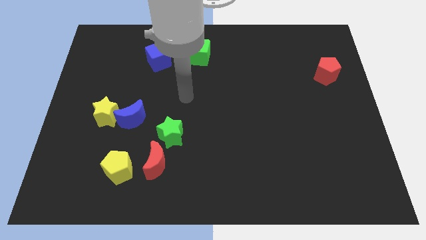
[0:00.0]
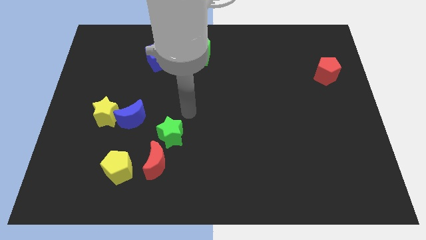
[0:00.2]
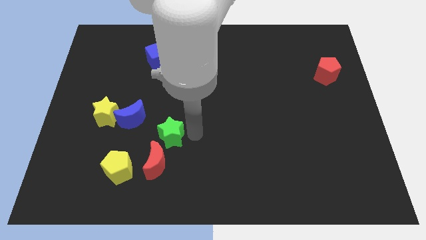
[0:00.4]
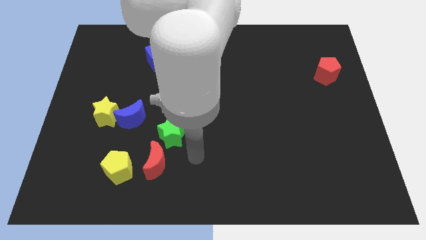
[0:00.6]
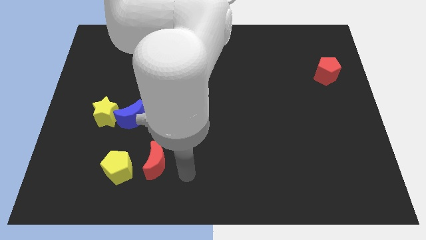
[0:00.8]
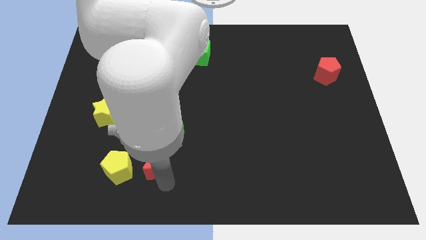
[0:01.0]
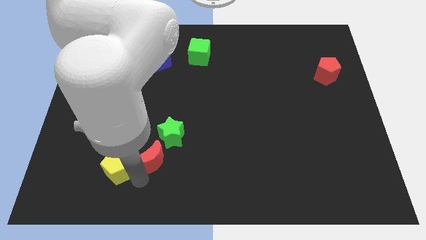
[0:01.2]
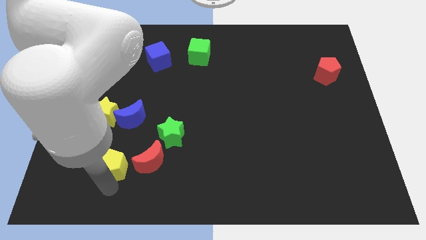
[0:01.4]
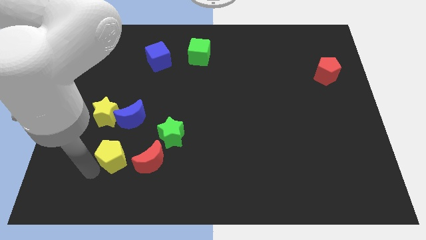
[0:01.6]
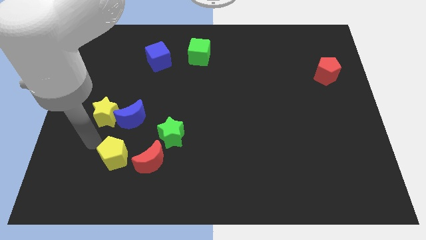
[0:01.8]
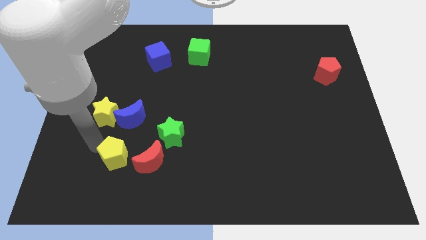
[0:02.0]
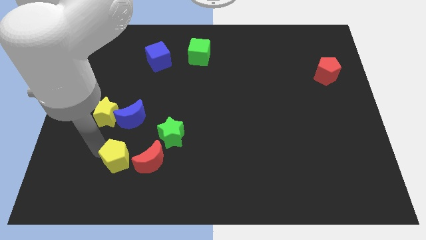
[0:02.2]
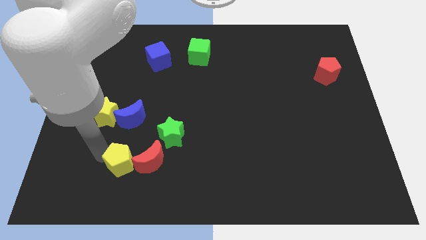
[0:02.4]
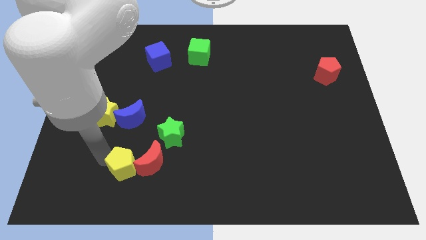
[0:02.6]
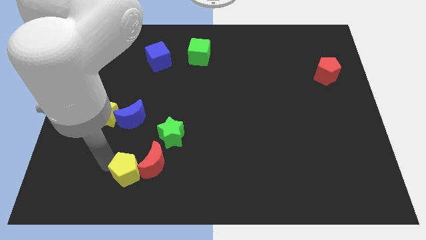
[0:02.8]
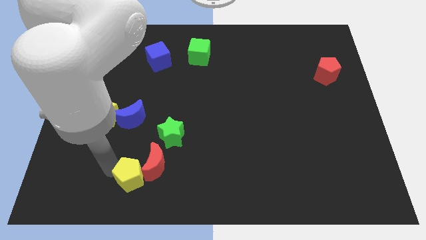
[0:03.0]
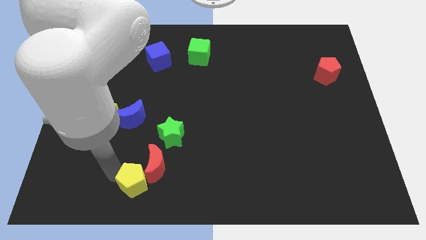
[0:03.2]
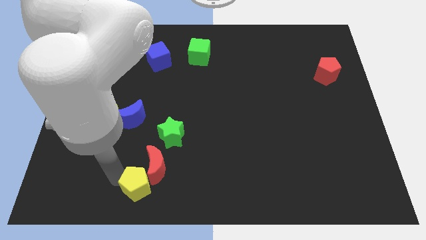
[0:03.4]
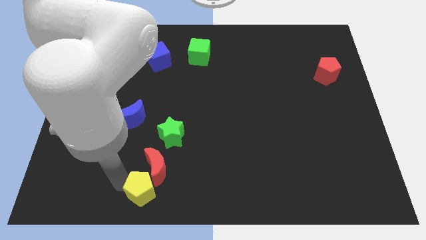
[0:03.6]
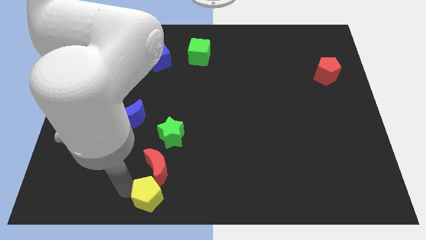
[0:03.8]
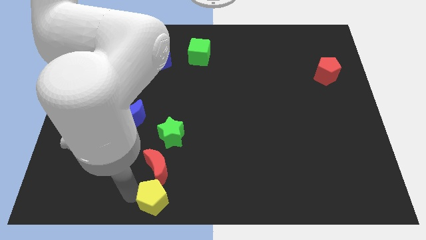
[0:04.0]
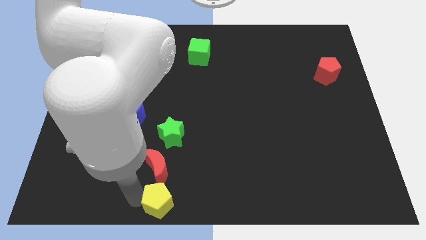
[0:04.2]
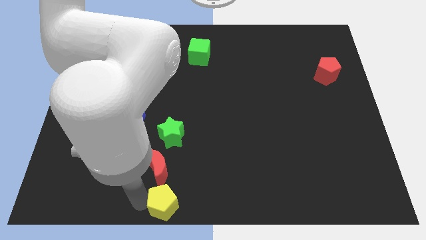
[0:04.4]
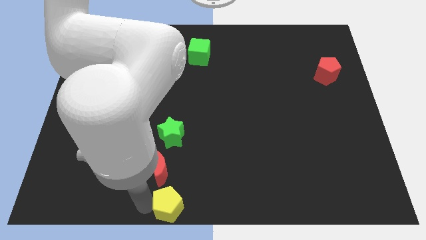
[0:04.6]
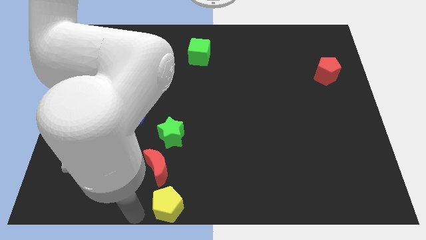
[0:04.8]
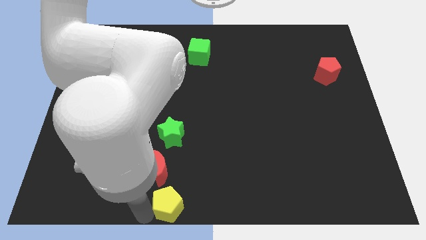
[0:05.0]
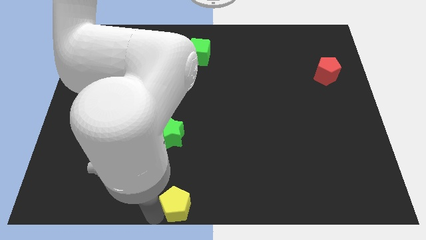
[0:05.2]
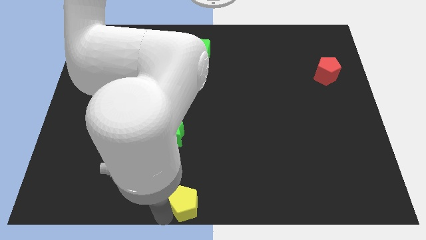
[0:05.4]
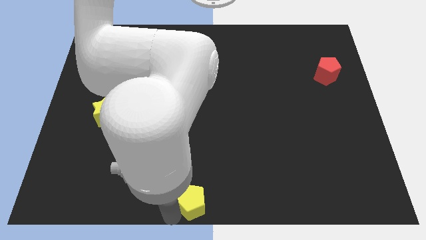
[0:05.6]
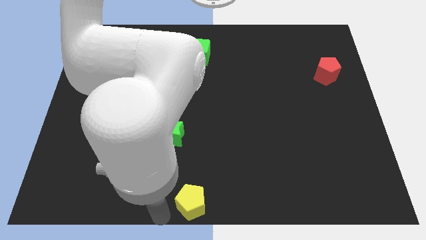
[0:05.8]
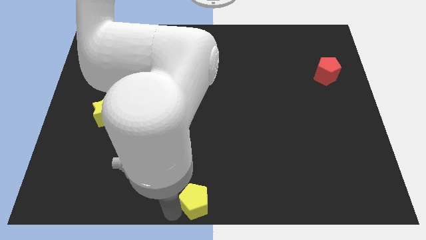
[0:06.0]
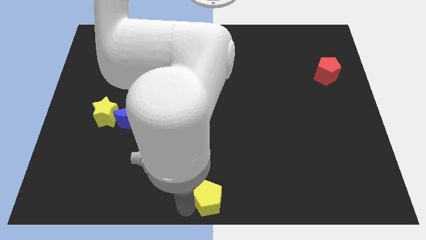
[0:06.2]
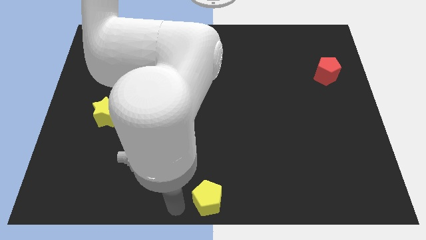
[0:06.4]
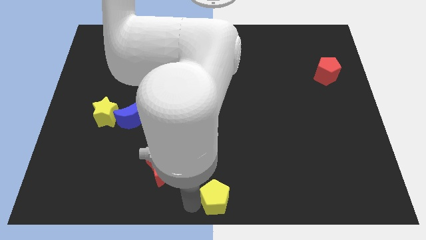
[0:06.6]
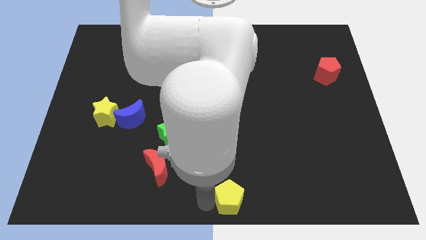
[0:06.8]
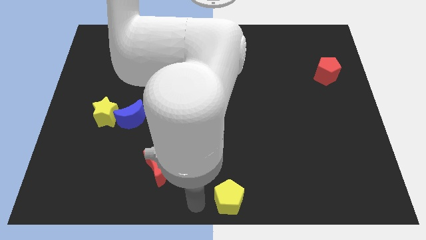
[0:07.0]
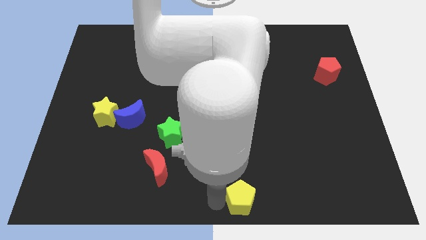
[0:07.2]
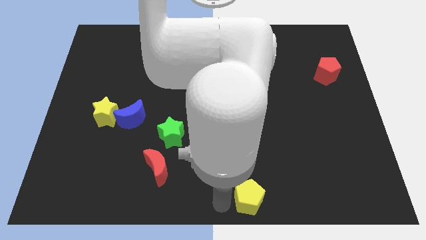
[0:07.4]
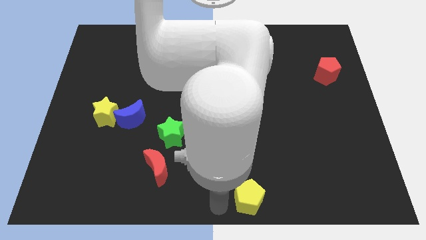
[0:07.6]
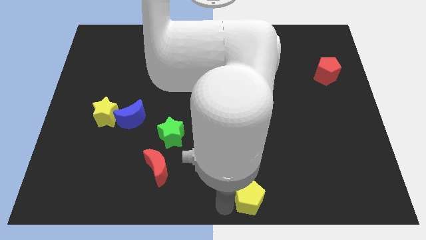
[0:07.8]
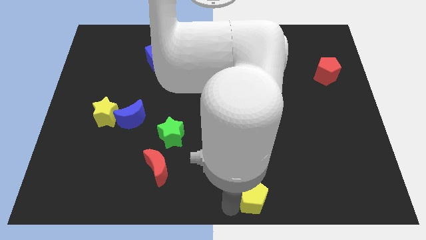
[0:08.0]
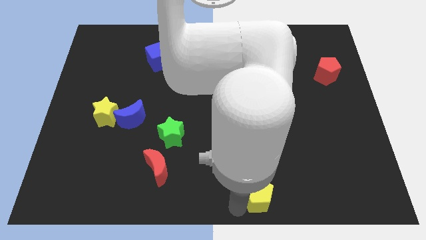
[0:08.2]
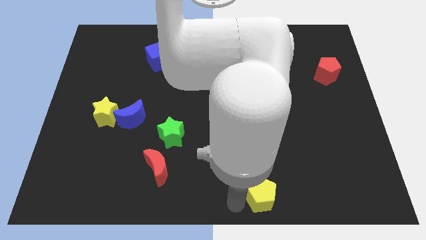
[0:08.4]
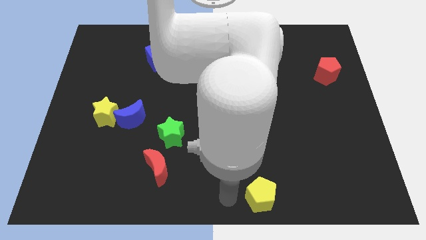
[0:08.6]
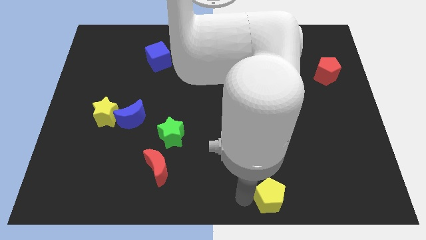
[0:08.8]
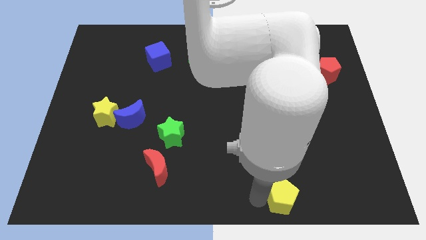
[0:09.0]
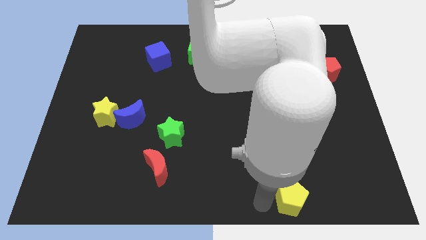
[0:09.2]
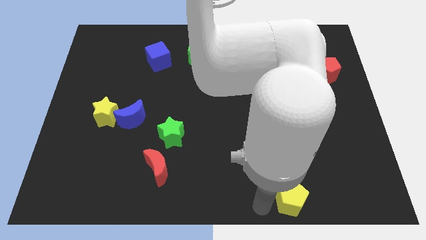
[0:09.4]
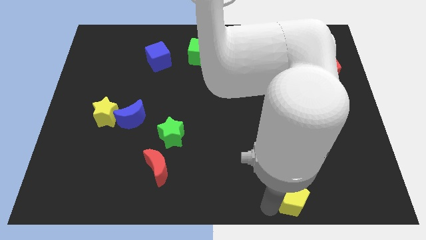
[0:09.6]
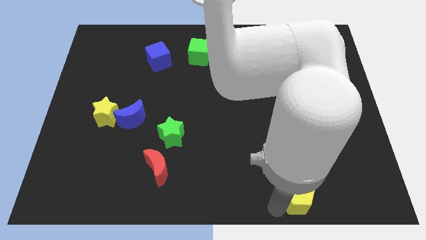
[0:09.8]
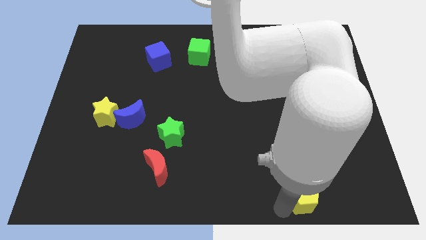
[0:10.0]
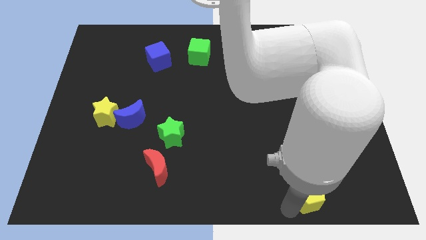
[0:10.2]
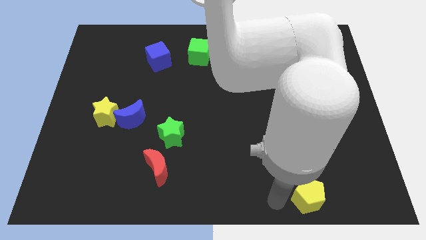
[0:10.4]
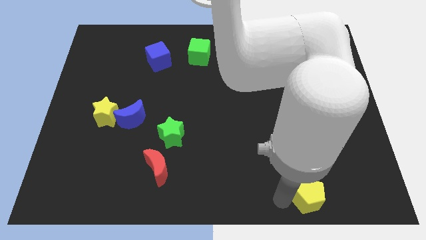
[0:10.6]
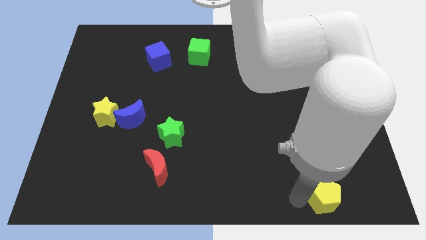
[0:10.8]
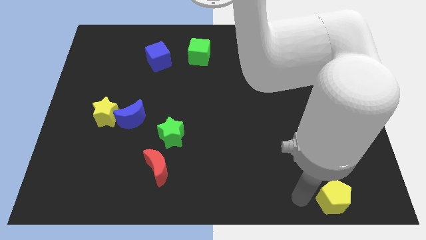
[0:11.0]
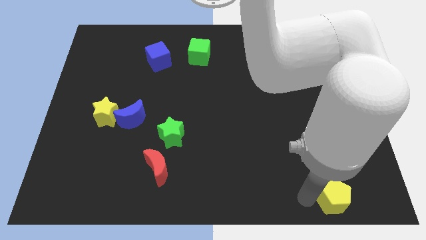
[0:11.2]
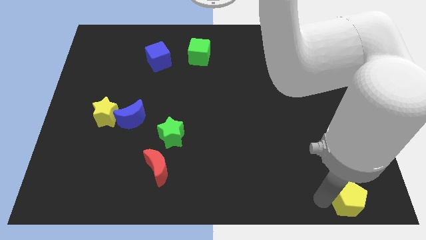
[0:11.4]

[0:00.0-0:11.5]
slide the yellow pentagon to the bottom right corner

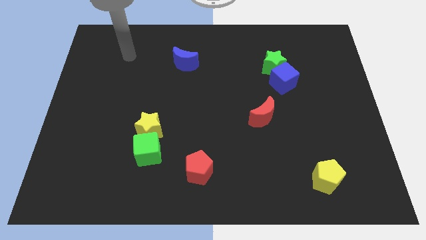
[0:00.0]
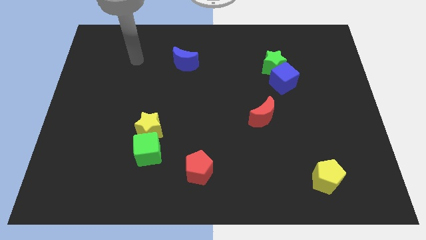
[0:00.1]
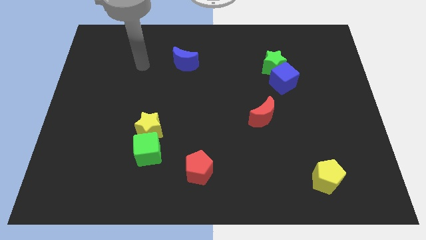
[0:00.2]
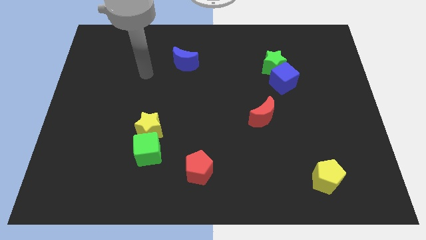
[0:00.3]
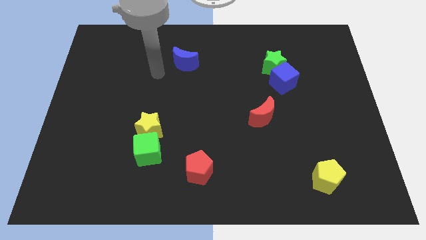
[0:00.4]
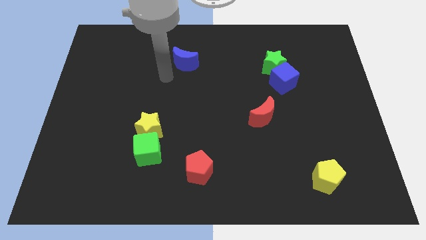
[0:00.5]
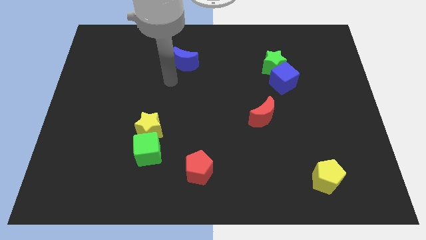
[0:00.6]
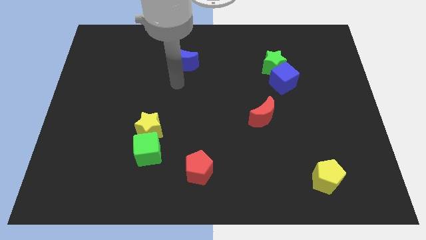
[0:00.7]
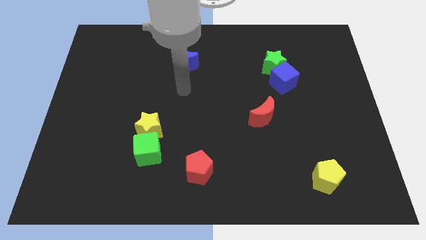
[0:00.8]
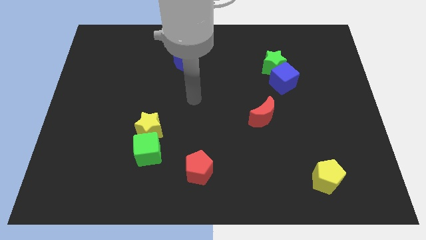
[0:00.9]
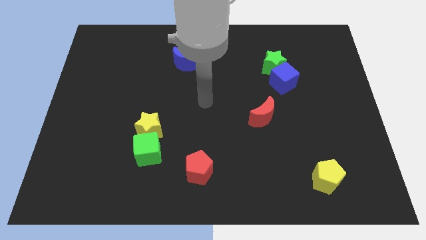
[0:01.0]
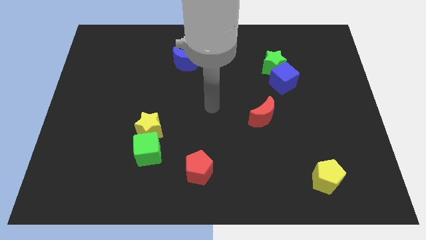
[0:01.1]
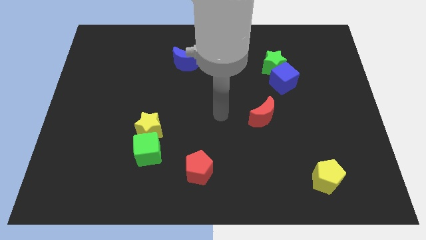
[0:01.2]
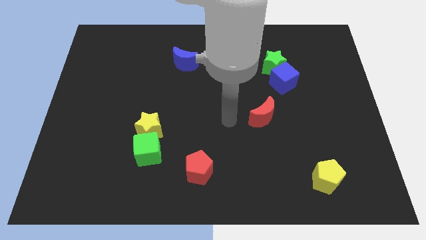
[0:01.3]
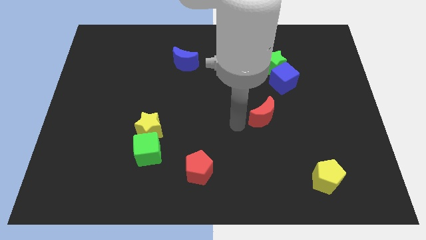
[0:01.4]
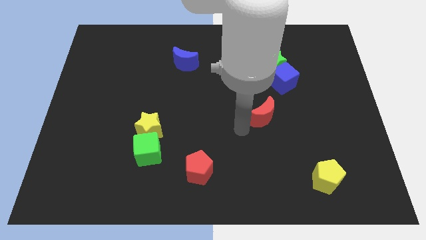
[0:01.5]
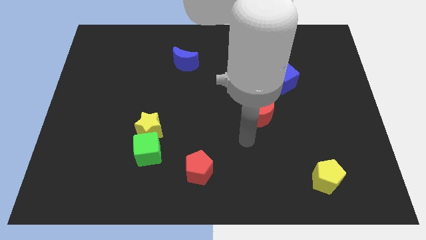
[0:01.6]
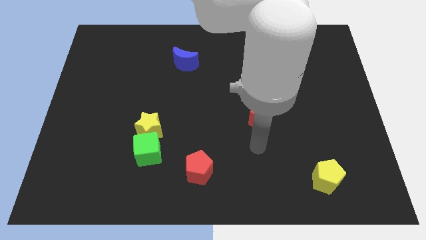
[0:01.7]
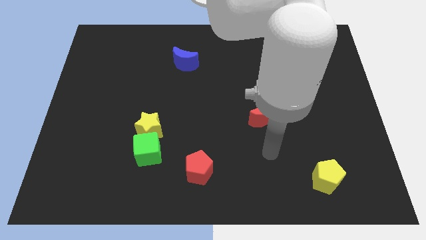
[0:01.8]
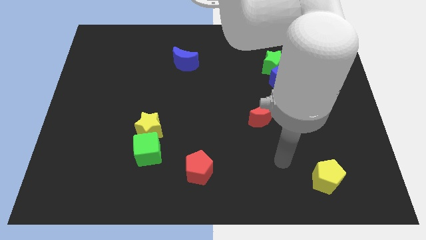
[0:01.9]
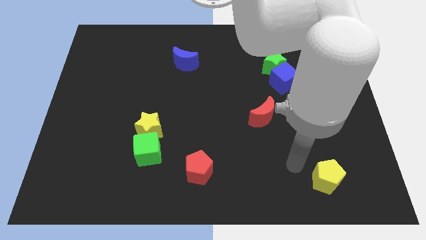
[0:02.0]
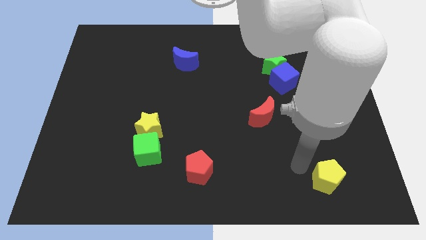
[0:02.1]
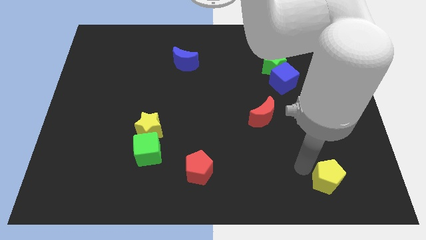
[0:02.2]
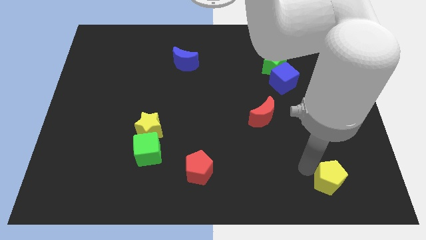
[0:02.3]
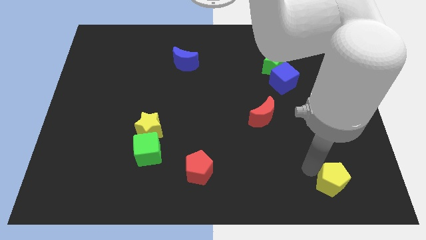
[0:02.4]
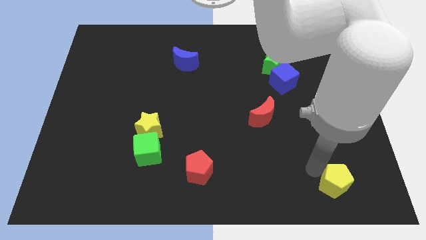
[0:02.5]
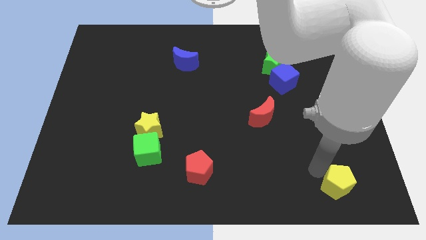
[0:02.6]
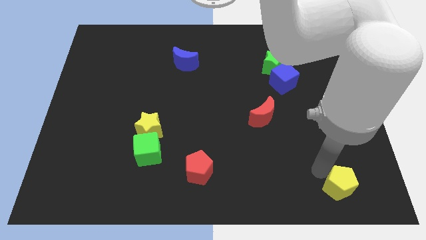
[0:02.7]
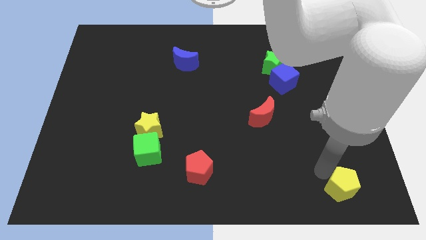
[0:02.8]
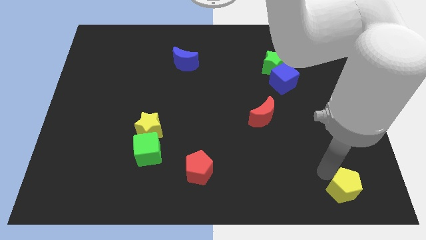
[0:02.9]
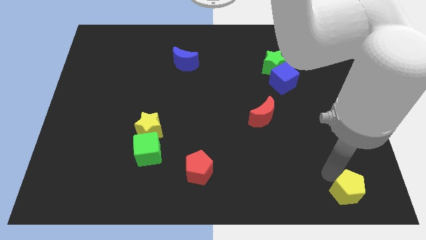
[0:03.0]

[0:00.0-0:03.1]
push the yellow pentagon to the bottom right corner
